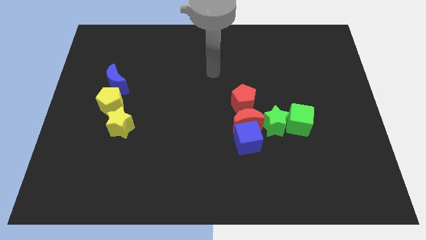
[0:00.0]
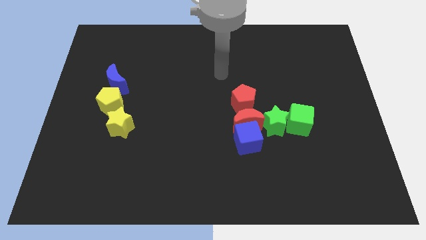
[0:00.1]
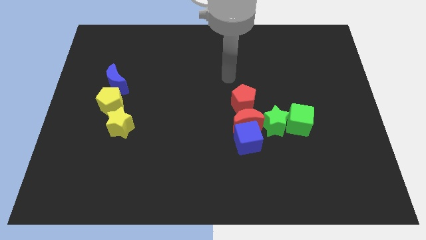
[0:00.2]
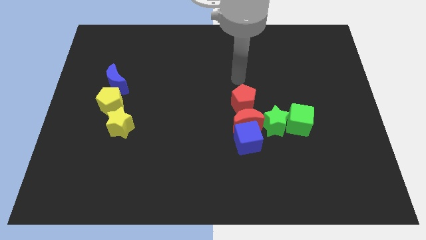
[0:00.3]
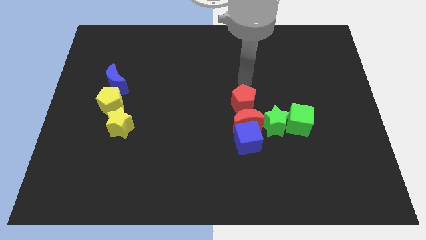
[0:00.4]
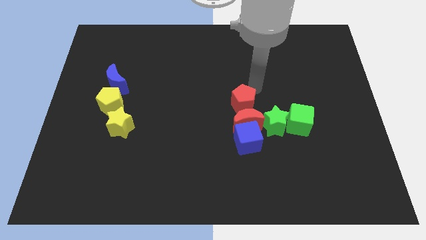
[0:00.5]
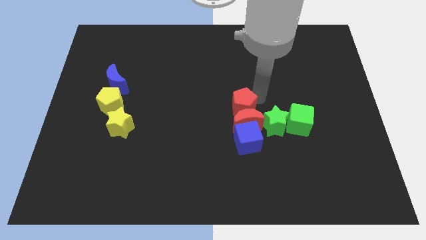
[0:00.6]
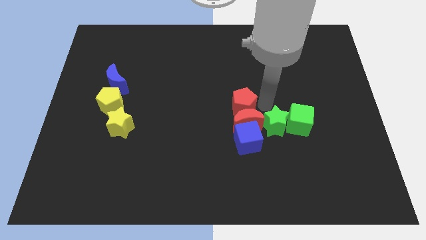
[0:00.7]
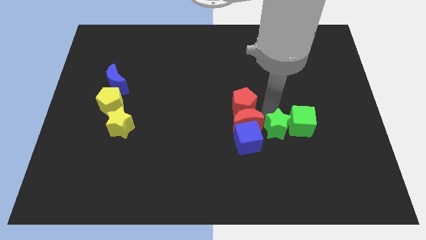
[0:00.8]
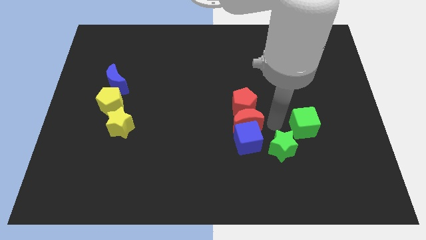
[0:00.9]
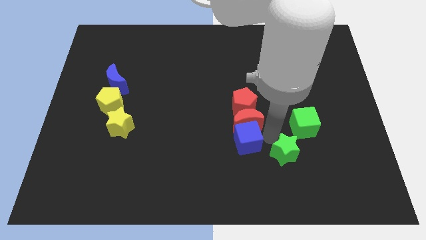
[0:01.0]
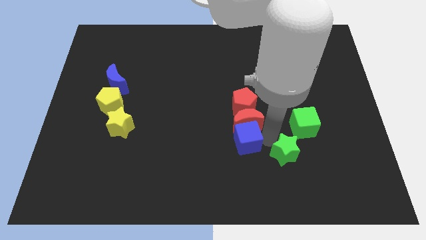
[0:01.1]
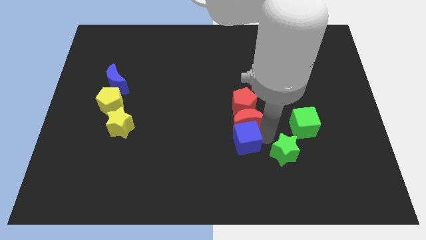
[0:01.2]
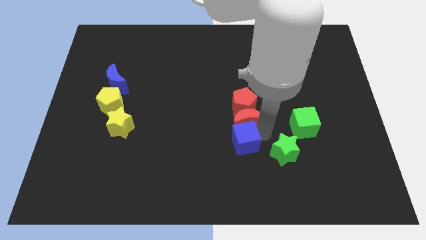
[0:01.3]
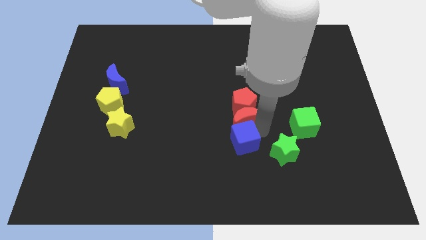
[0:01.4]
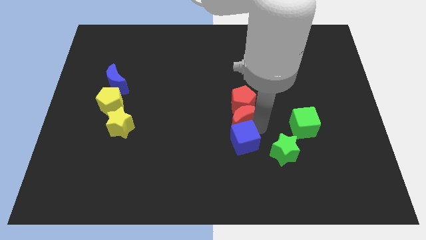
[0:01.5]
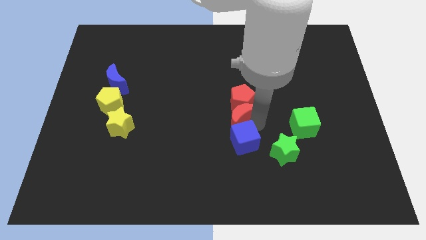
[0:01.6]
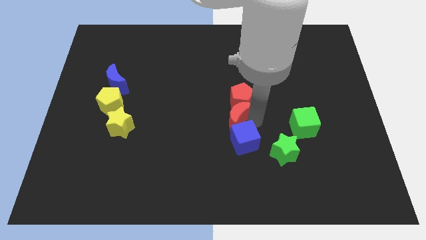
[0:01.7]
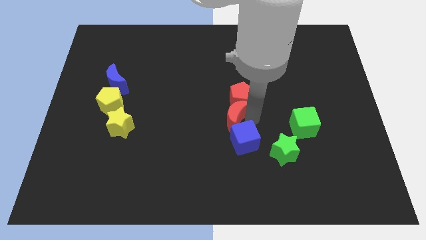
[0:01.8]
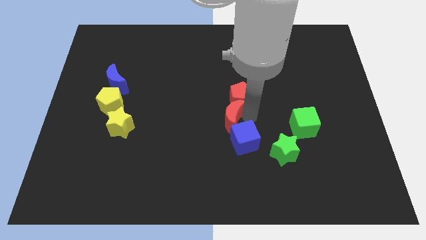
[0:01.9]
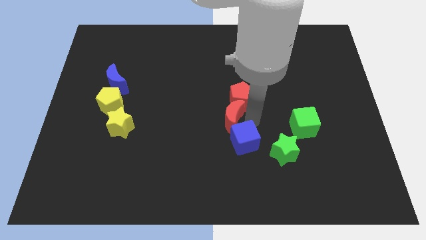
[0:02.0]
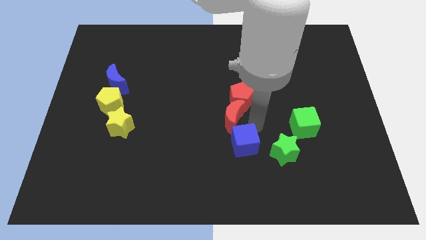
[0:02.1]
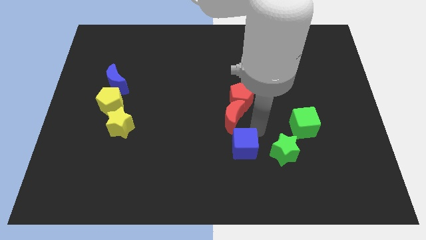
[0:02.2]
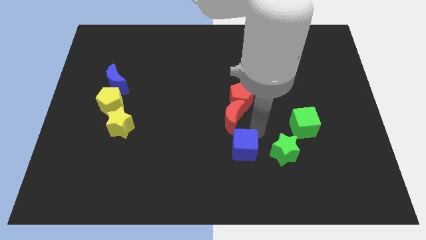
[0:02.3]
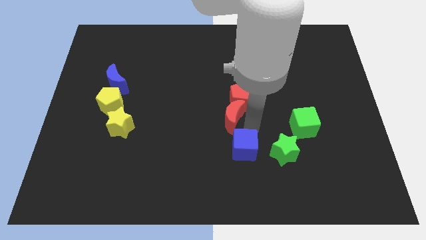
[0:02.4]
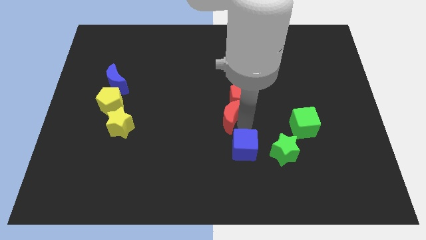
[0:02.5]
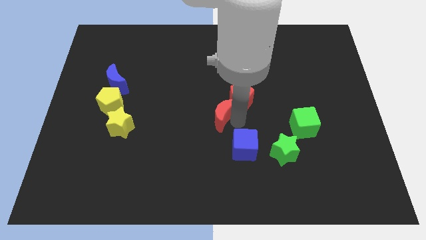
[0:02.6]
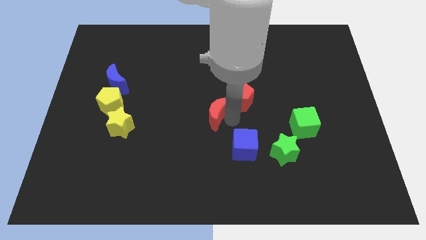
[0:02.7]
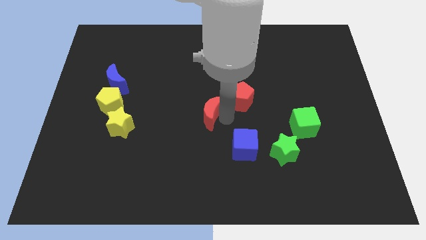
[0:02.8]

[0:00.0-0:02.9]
move the red moon away from the group

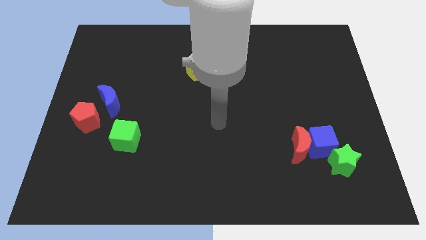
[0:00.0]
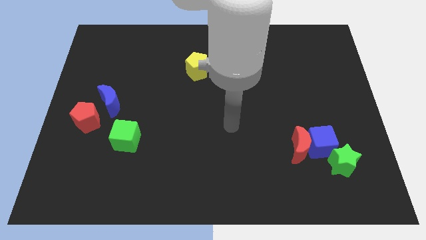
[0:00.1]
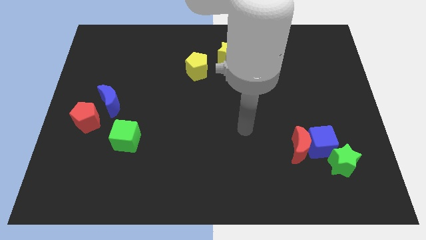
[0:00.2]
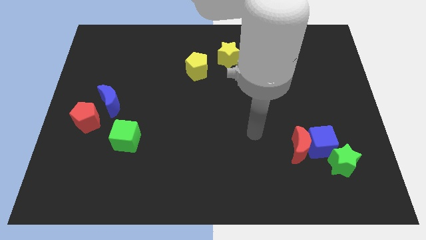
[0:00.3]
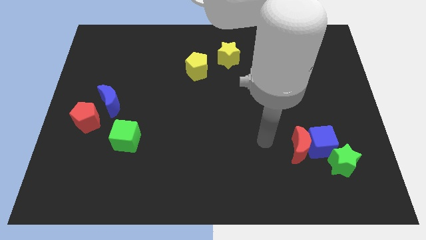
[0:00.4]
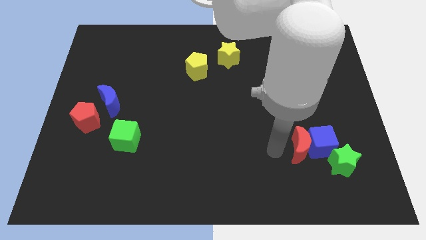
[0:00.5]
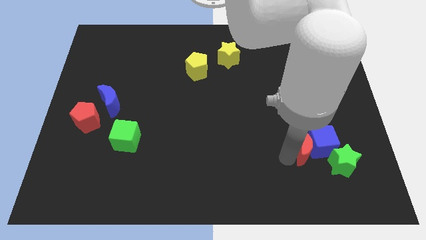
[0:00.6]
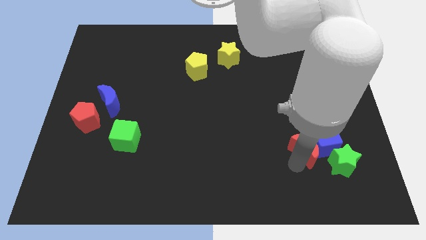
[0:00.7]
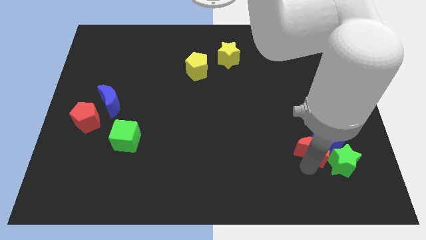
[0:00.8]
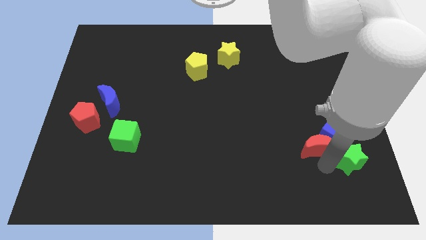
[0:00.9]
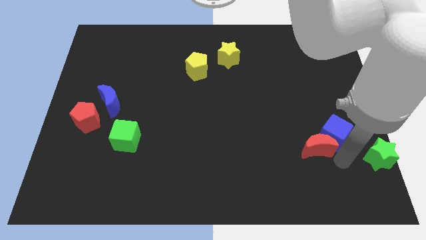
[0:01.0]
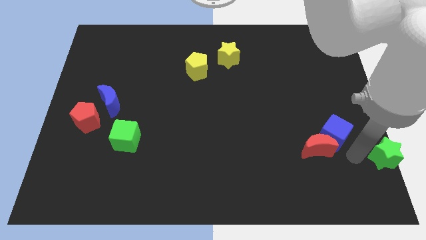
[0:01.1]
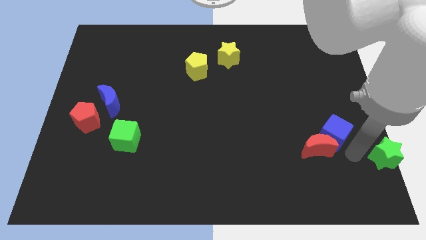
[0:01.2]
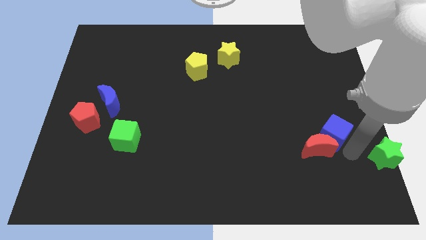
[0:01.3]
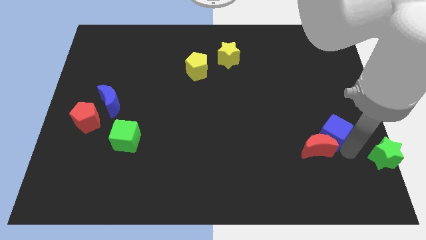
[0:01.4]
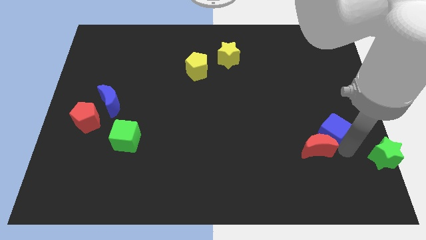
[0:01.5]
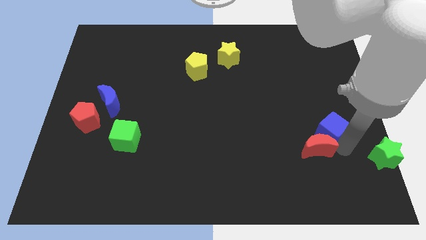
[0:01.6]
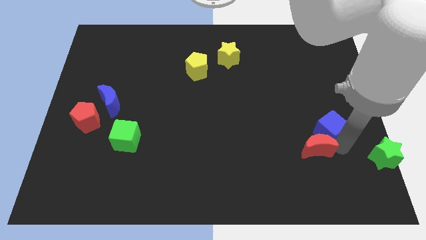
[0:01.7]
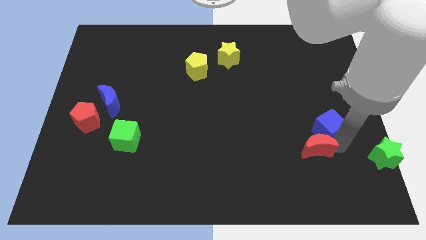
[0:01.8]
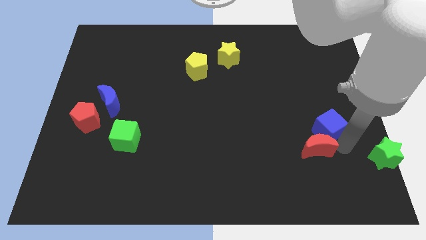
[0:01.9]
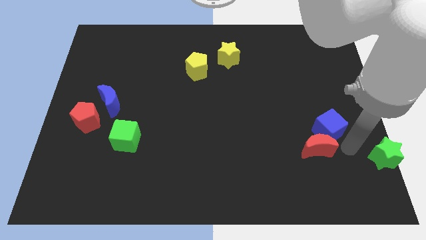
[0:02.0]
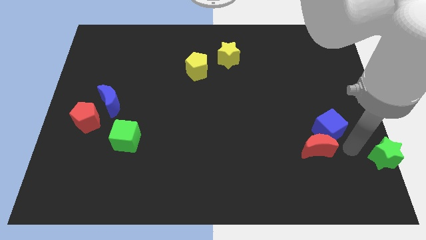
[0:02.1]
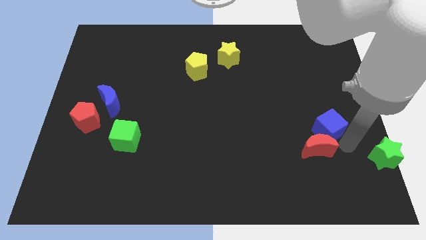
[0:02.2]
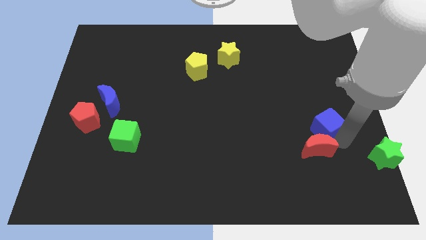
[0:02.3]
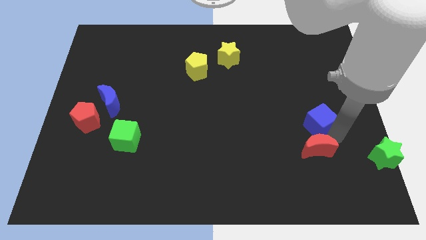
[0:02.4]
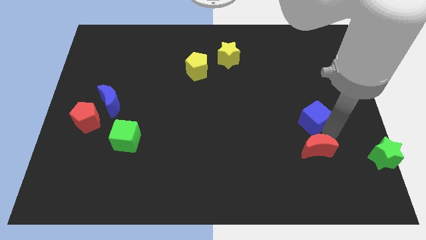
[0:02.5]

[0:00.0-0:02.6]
move the blue cube away from the red moon and green star

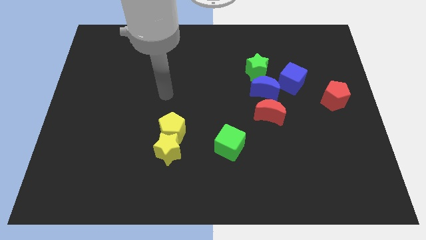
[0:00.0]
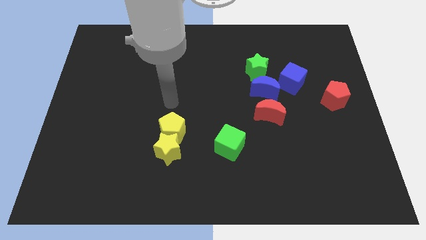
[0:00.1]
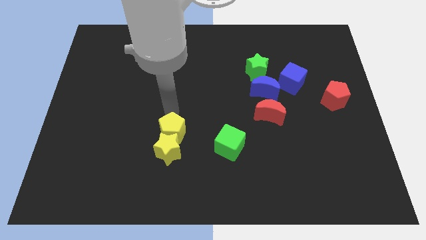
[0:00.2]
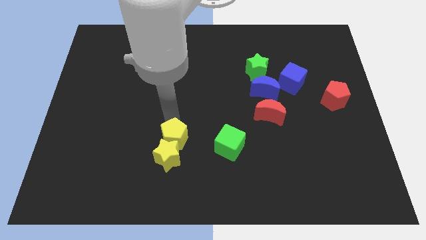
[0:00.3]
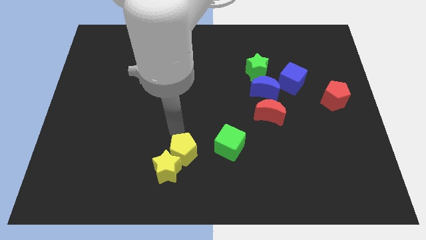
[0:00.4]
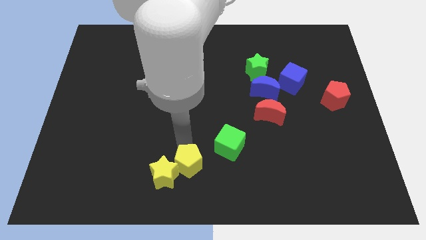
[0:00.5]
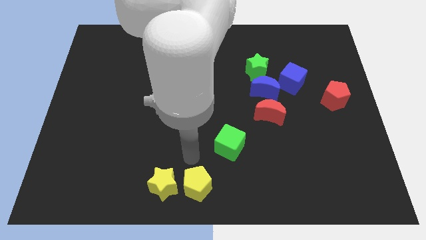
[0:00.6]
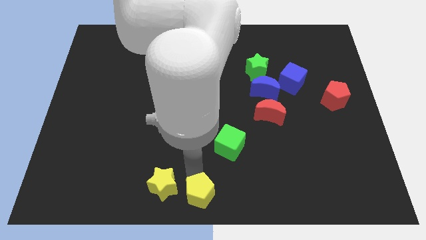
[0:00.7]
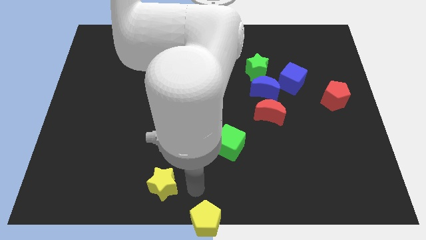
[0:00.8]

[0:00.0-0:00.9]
move the yellow star away from the yellow pentagon

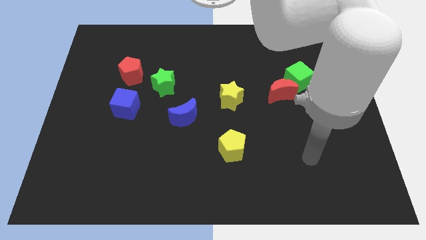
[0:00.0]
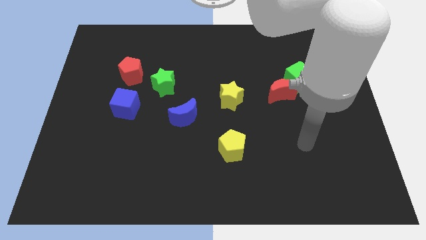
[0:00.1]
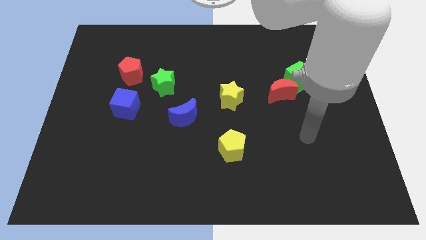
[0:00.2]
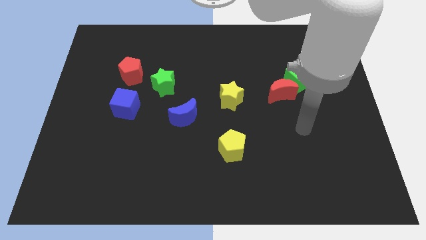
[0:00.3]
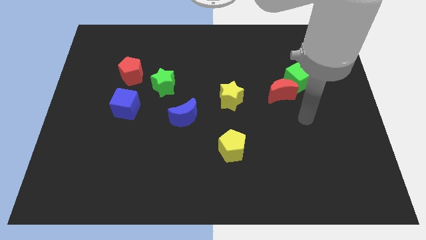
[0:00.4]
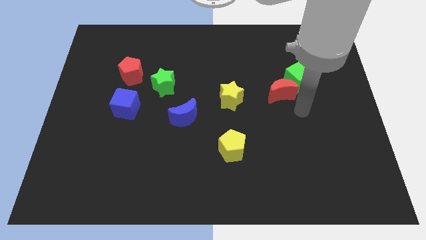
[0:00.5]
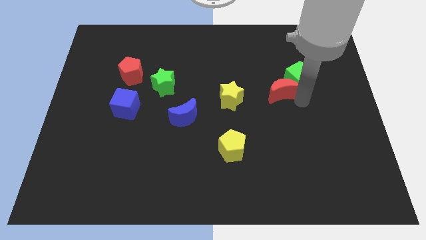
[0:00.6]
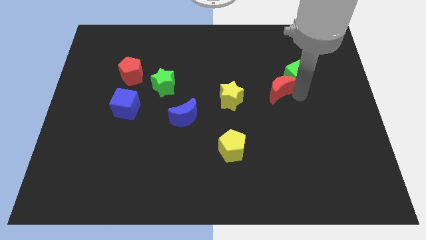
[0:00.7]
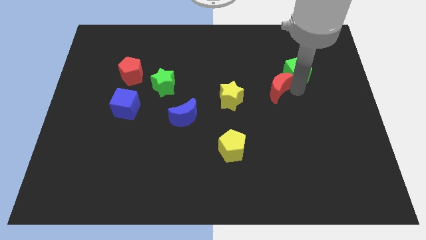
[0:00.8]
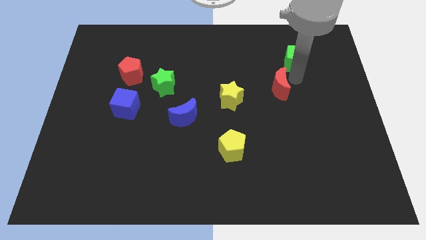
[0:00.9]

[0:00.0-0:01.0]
separate the red moon from the green cube

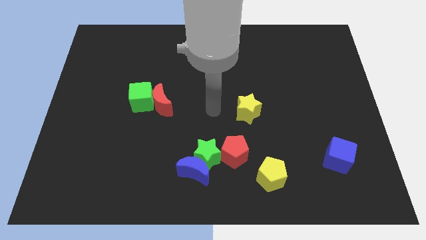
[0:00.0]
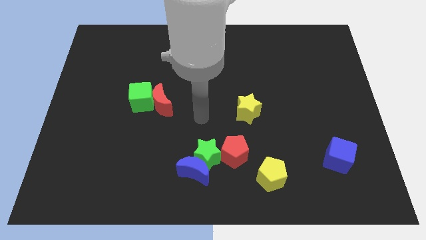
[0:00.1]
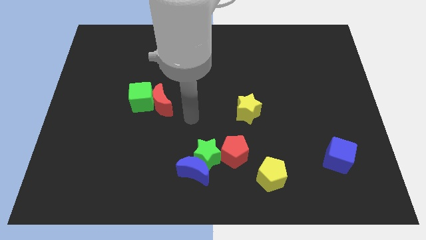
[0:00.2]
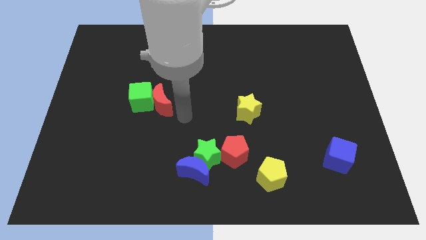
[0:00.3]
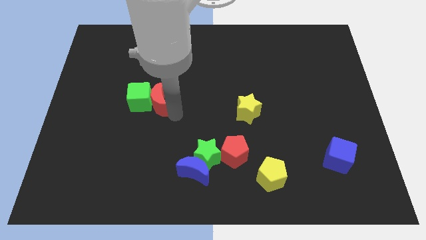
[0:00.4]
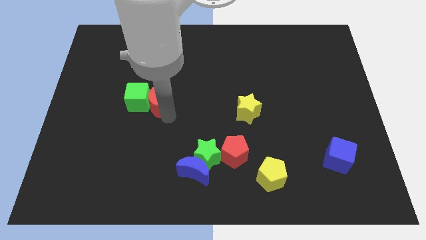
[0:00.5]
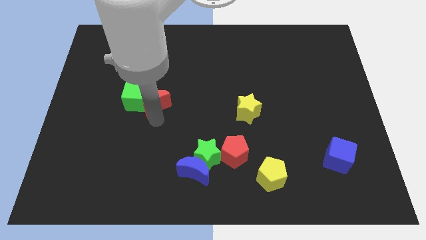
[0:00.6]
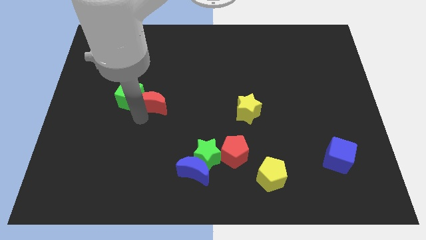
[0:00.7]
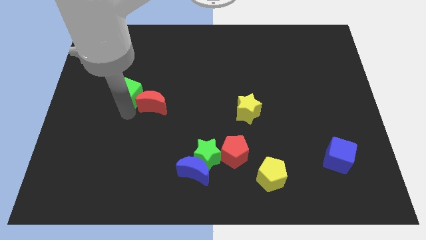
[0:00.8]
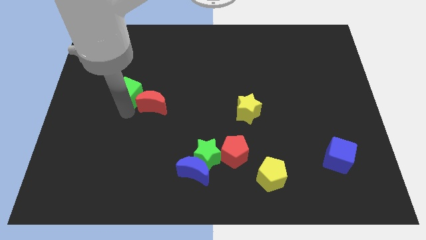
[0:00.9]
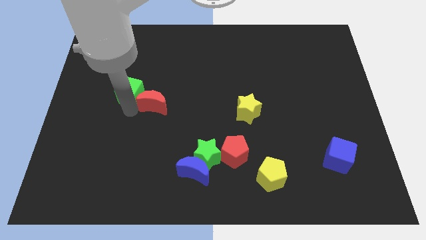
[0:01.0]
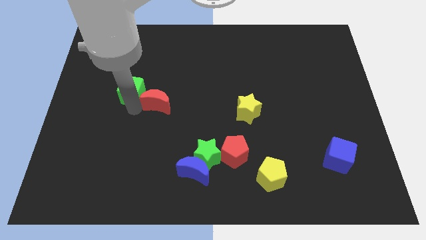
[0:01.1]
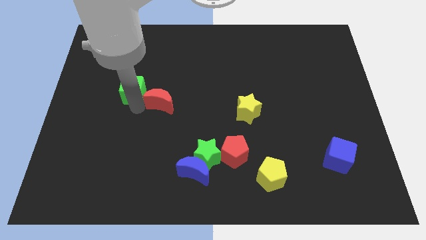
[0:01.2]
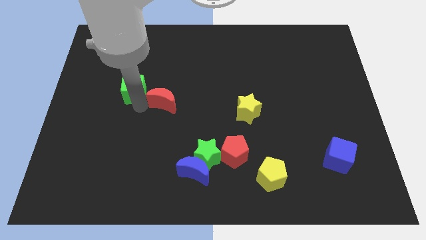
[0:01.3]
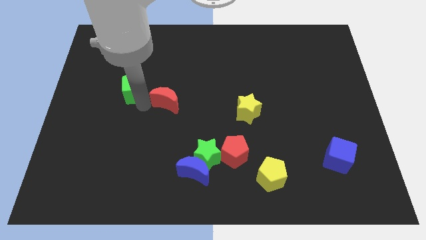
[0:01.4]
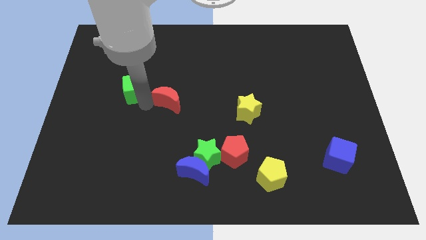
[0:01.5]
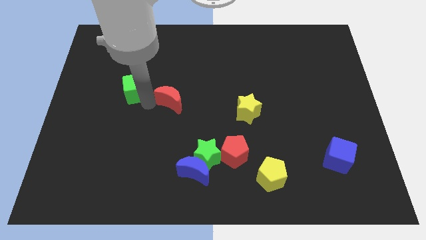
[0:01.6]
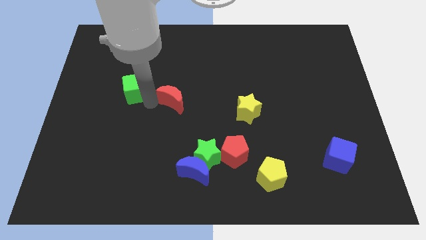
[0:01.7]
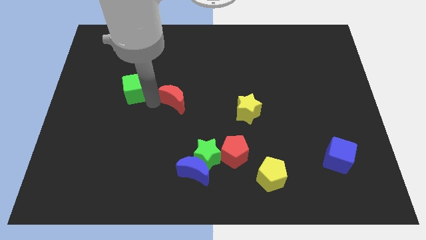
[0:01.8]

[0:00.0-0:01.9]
move the red moon away from the green cube
